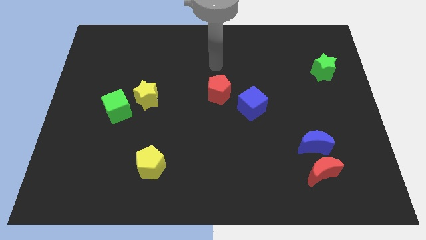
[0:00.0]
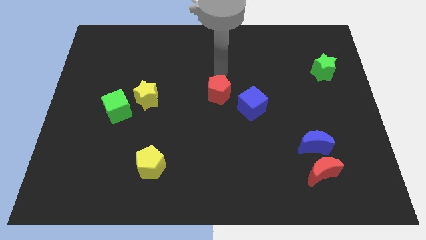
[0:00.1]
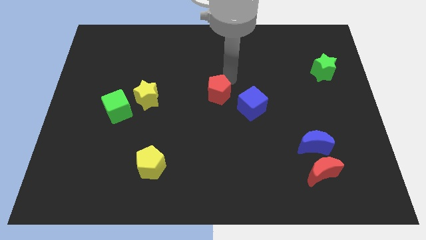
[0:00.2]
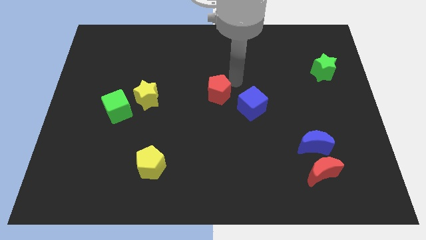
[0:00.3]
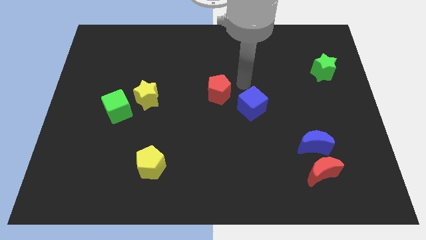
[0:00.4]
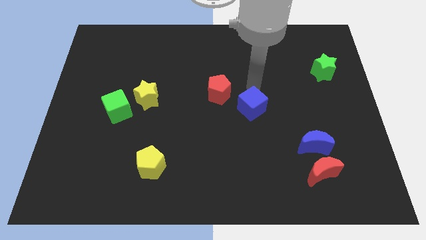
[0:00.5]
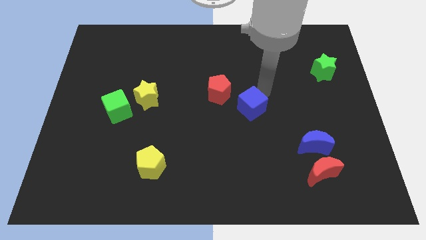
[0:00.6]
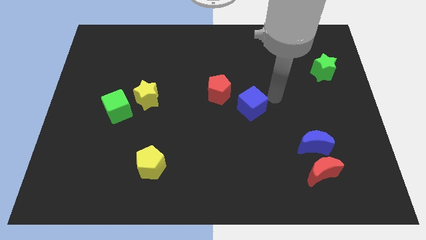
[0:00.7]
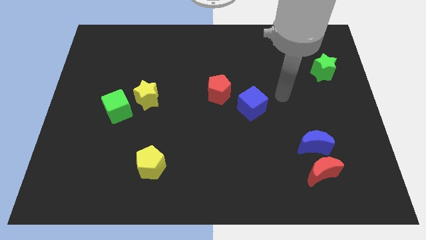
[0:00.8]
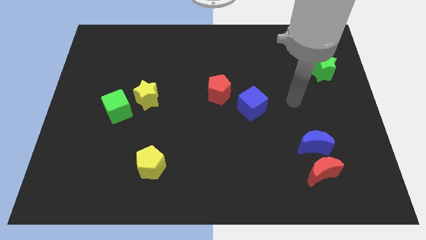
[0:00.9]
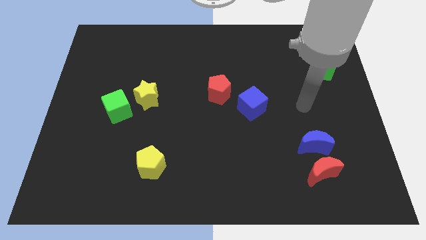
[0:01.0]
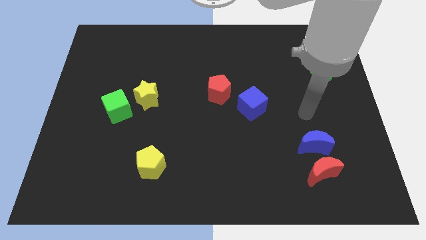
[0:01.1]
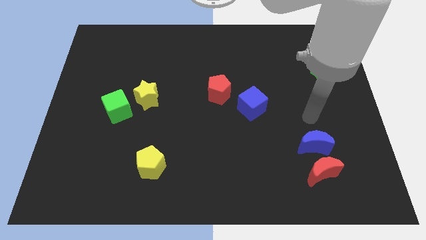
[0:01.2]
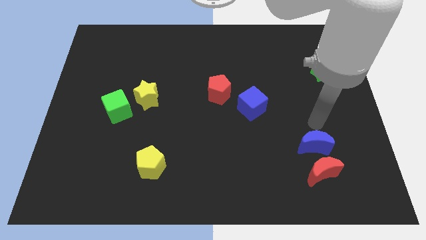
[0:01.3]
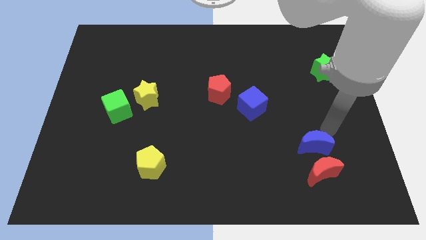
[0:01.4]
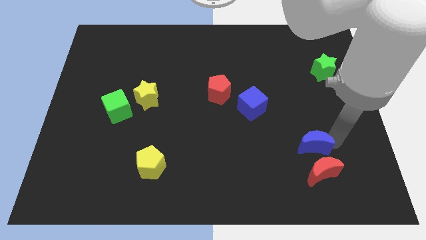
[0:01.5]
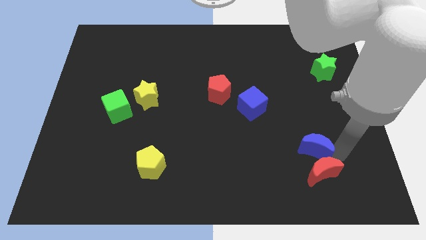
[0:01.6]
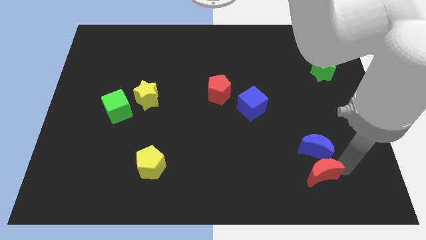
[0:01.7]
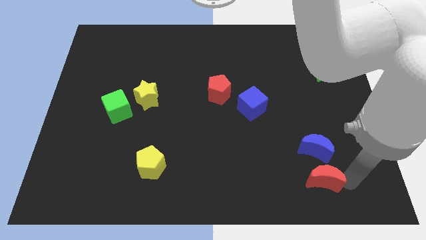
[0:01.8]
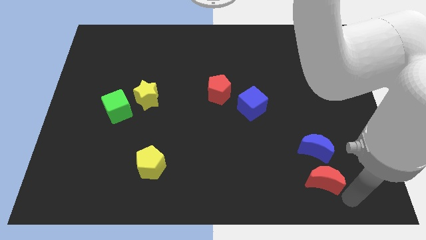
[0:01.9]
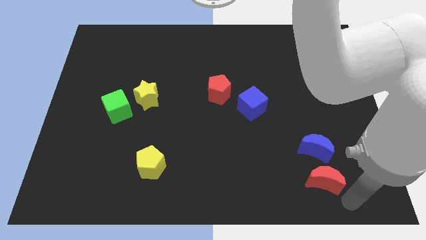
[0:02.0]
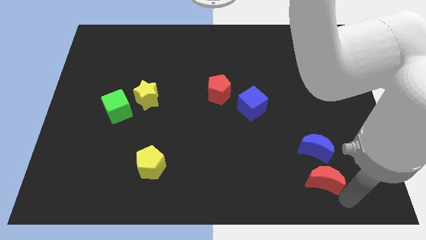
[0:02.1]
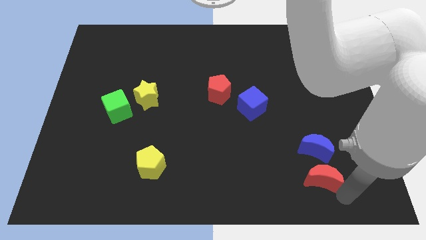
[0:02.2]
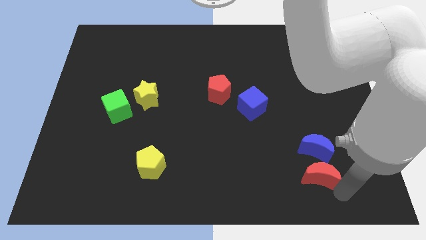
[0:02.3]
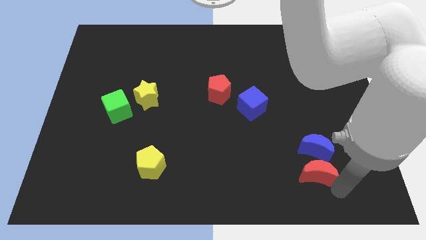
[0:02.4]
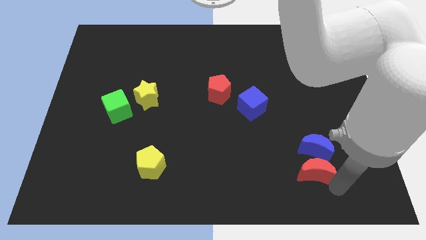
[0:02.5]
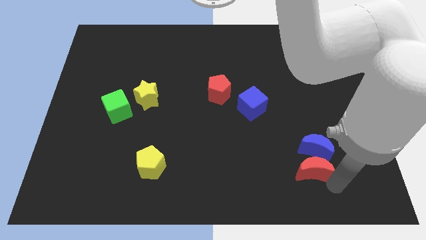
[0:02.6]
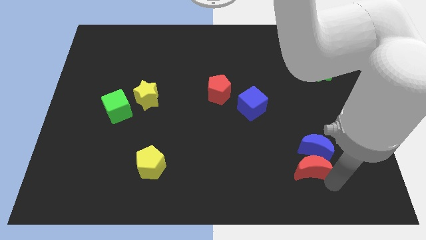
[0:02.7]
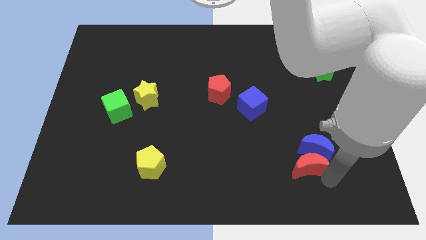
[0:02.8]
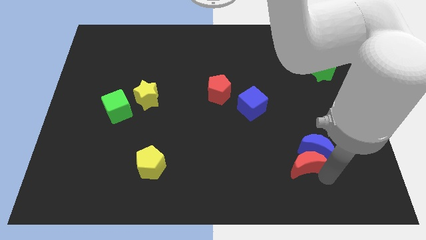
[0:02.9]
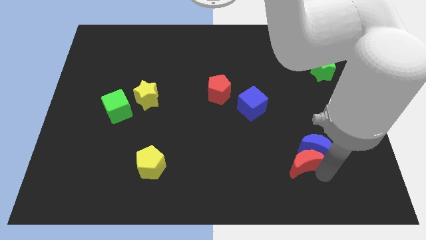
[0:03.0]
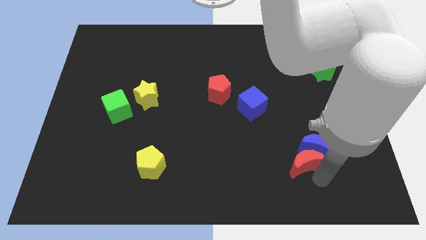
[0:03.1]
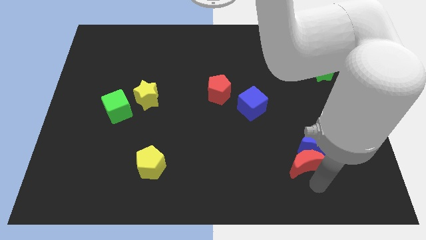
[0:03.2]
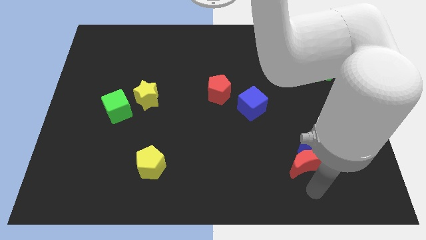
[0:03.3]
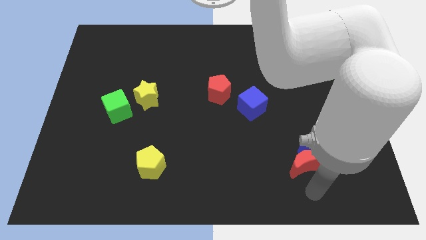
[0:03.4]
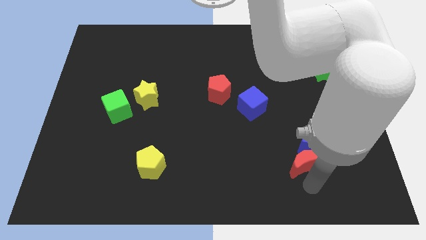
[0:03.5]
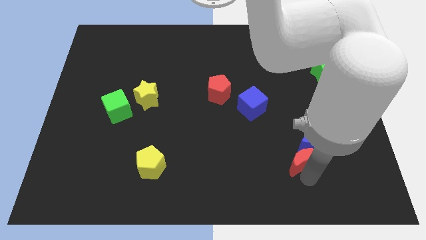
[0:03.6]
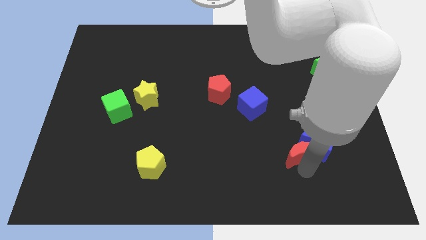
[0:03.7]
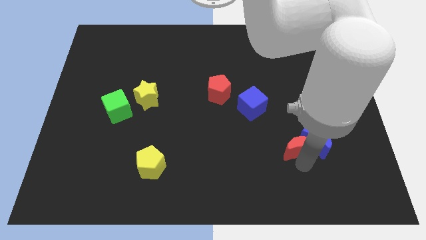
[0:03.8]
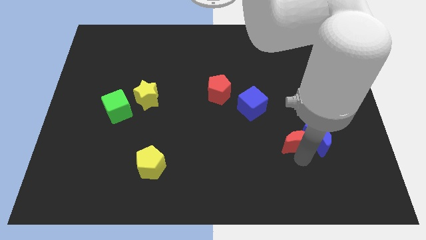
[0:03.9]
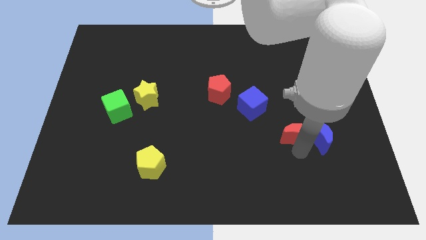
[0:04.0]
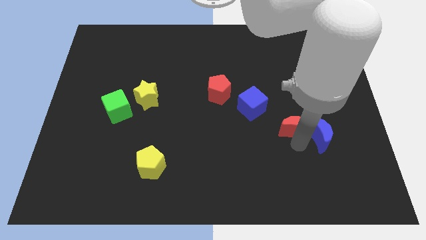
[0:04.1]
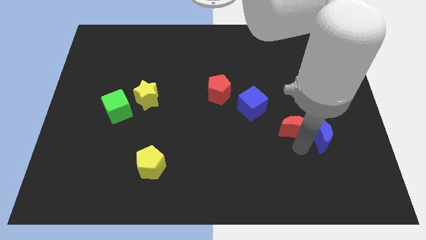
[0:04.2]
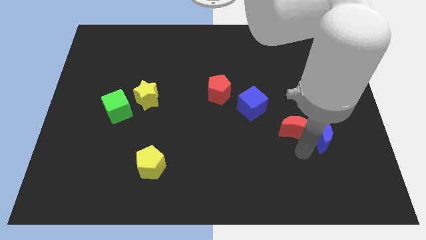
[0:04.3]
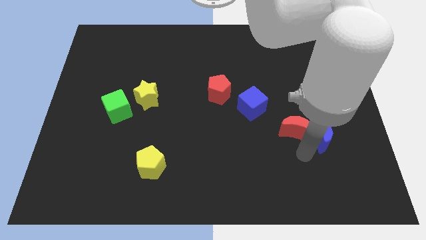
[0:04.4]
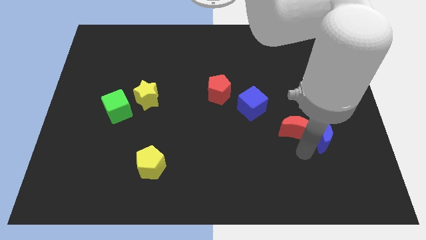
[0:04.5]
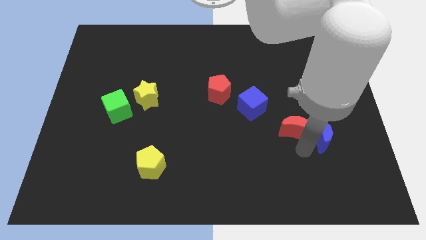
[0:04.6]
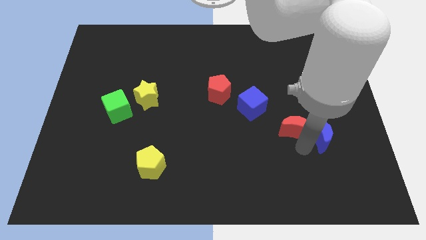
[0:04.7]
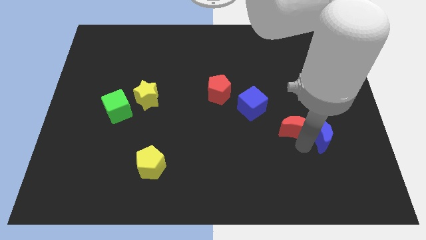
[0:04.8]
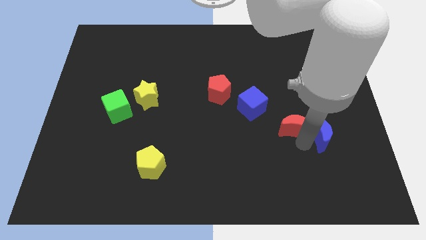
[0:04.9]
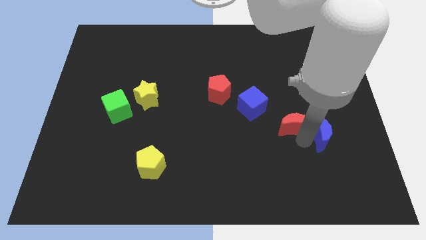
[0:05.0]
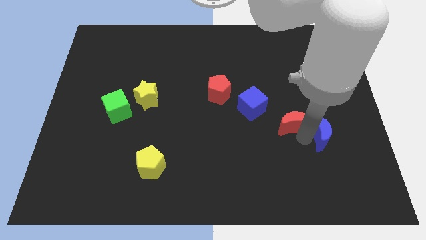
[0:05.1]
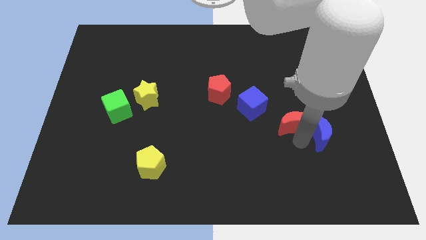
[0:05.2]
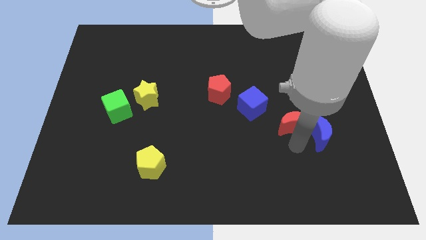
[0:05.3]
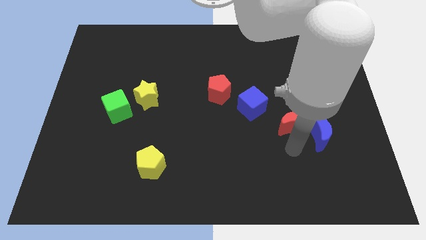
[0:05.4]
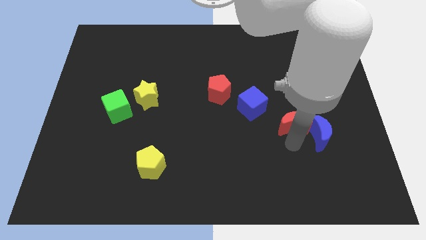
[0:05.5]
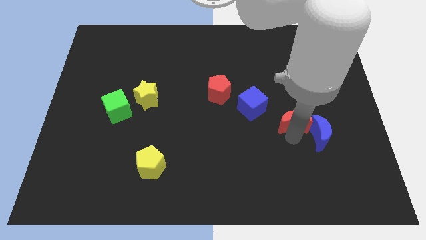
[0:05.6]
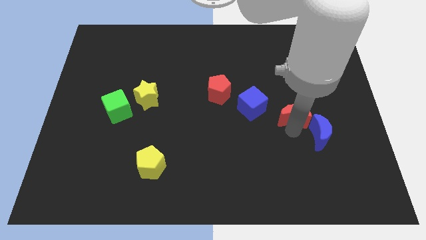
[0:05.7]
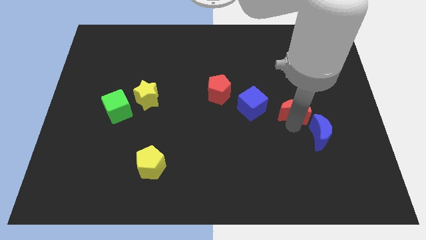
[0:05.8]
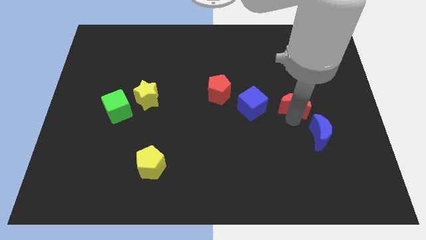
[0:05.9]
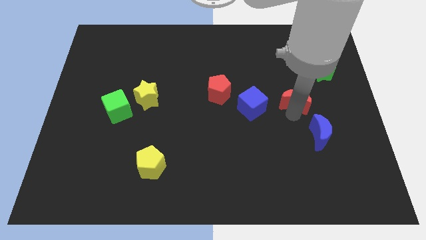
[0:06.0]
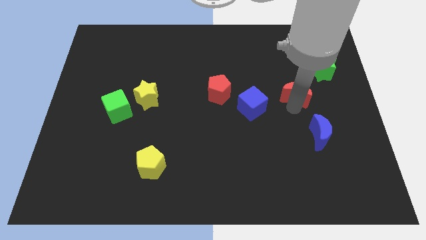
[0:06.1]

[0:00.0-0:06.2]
move the red moon up

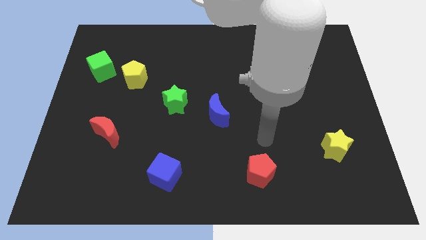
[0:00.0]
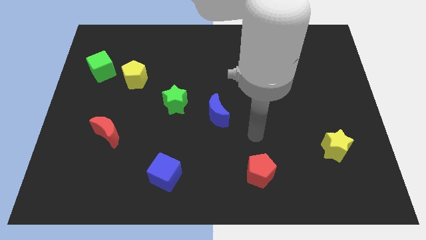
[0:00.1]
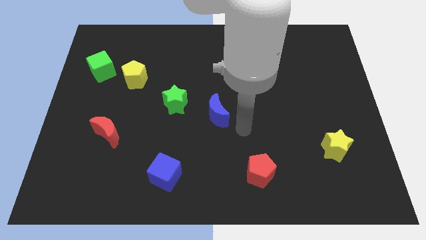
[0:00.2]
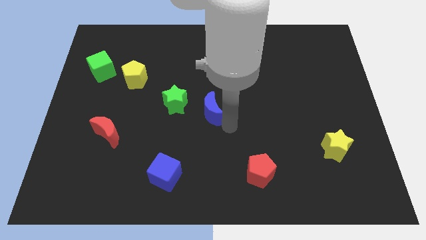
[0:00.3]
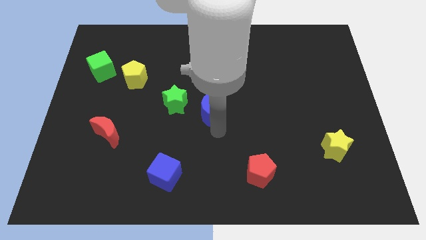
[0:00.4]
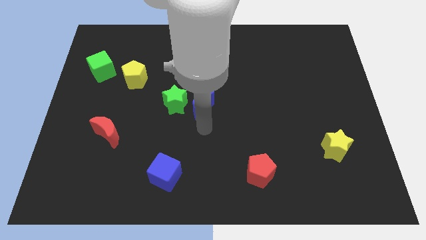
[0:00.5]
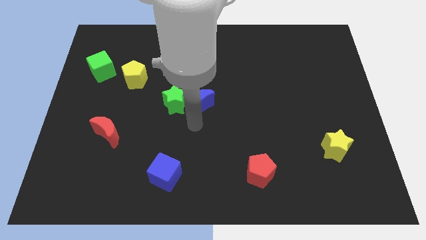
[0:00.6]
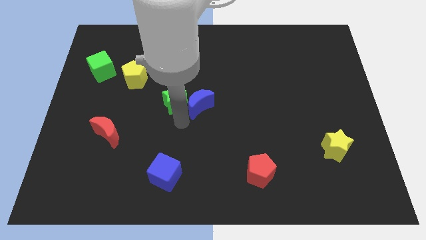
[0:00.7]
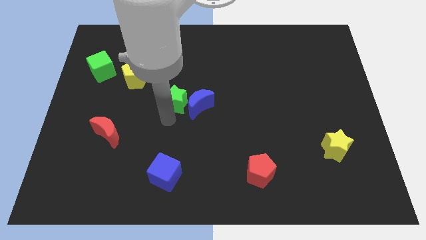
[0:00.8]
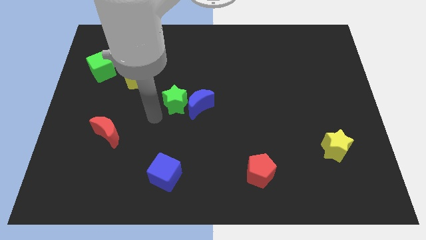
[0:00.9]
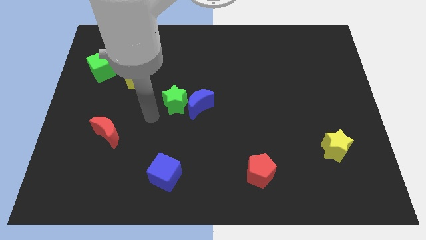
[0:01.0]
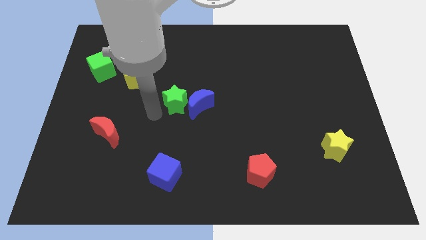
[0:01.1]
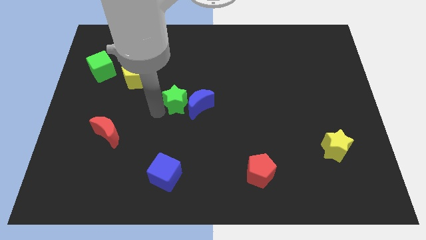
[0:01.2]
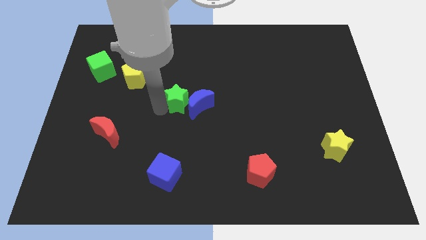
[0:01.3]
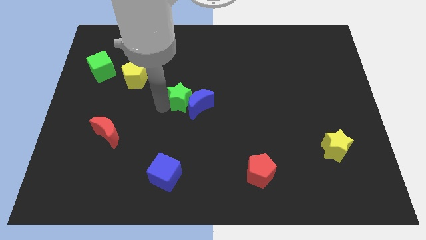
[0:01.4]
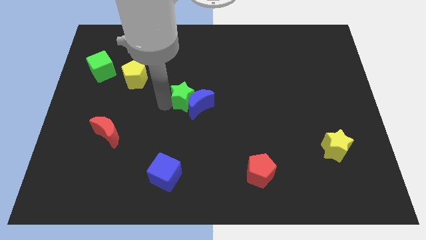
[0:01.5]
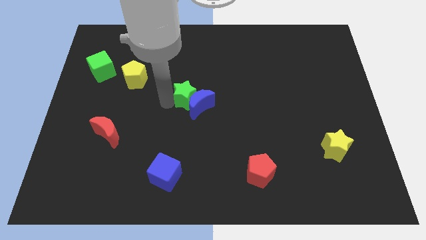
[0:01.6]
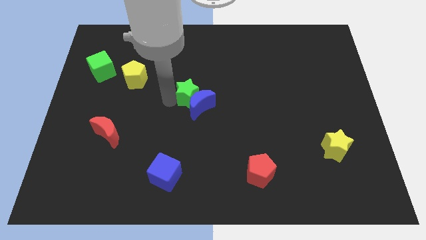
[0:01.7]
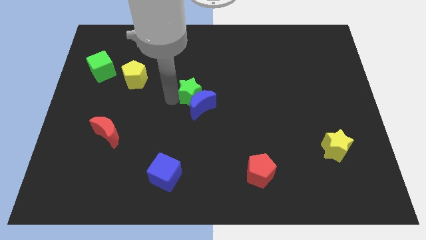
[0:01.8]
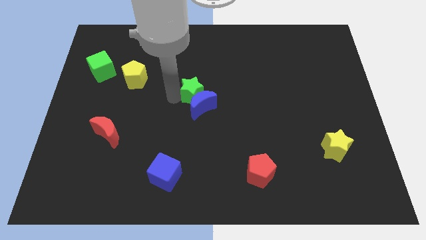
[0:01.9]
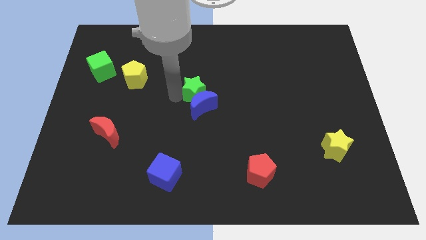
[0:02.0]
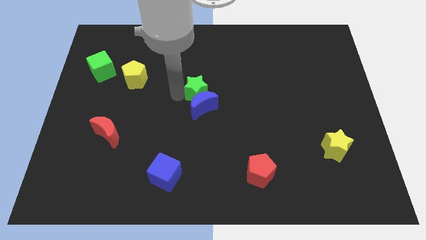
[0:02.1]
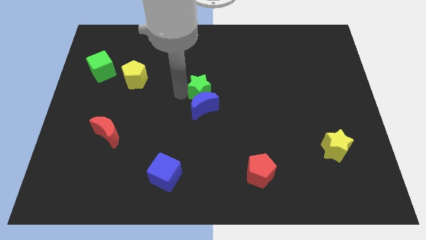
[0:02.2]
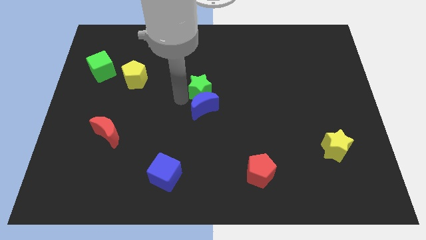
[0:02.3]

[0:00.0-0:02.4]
slightly move the green star upwards and to the right
